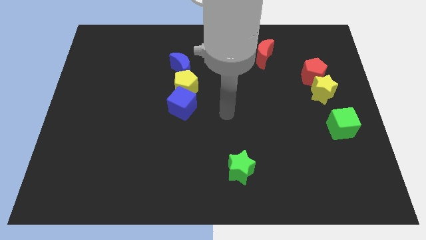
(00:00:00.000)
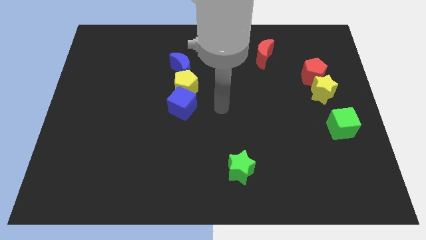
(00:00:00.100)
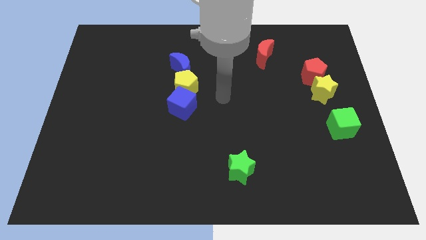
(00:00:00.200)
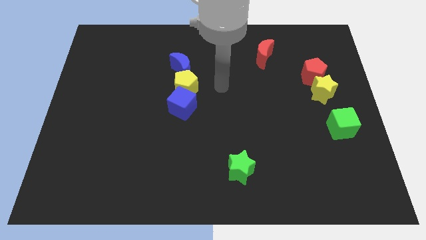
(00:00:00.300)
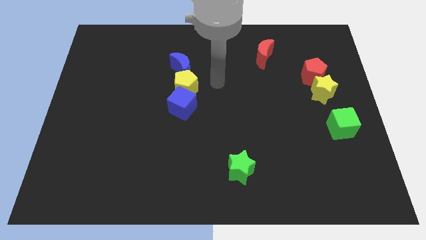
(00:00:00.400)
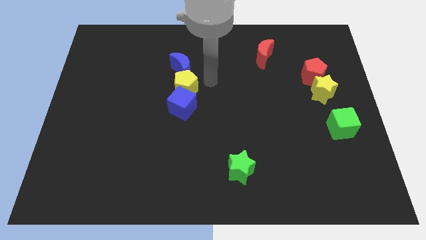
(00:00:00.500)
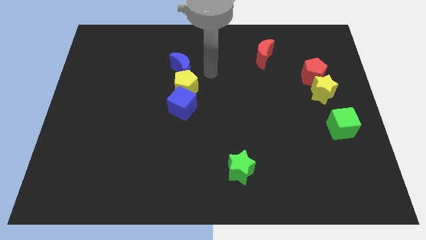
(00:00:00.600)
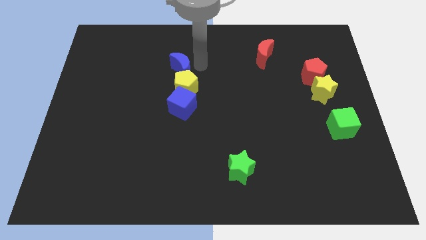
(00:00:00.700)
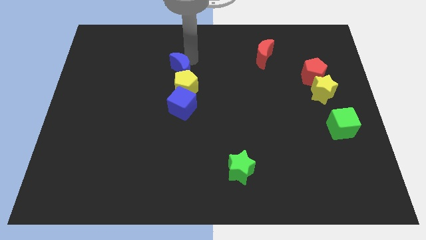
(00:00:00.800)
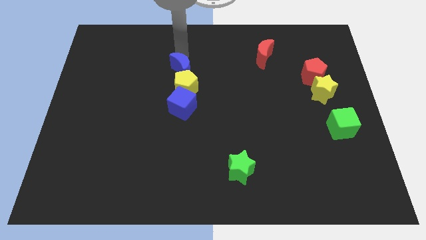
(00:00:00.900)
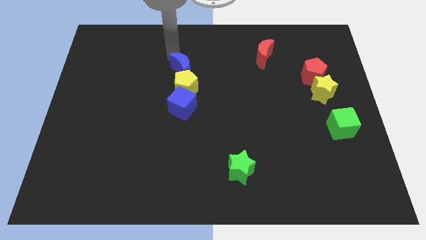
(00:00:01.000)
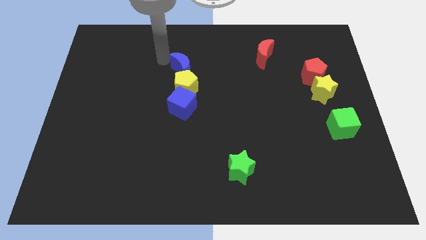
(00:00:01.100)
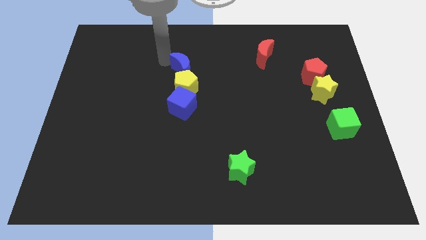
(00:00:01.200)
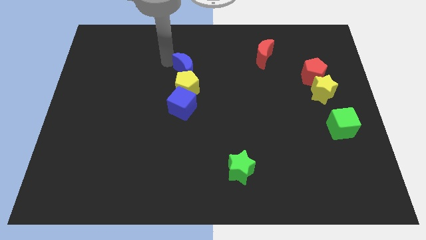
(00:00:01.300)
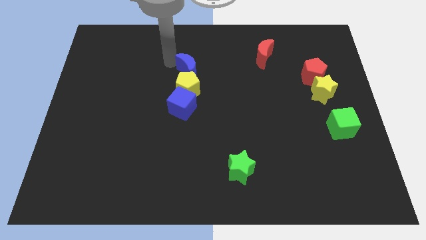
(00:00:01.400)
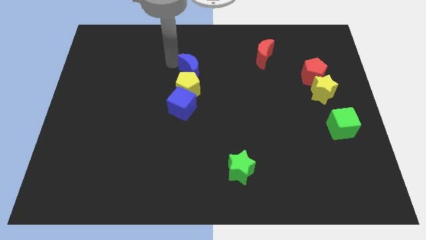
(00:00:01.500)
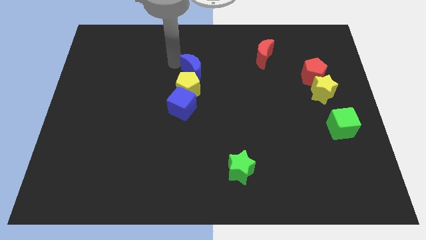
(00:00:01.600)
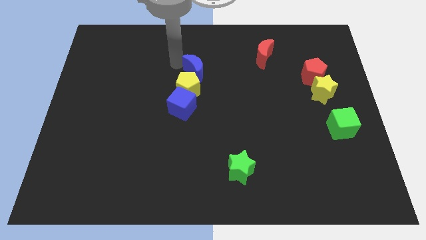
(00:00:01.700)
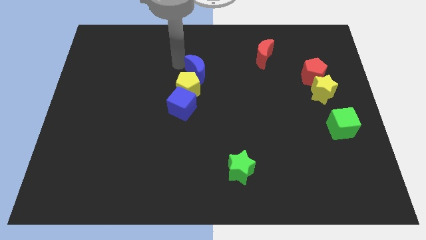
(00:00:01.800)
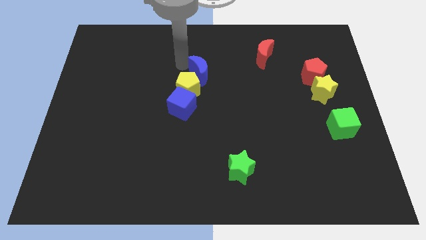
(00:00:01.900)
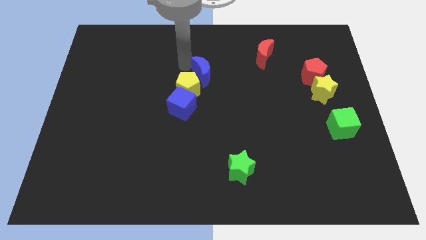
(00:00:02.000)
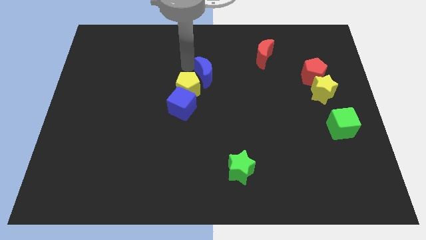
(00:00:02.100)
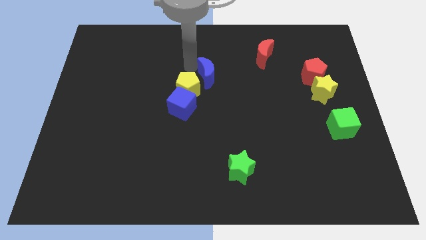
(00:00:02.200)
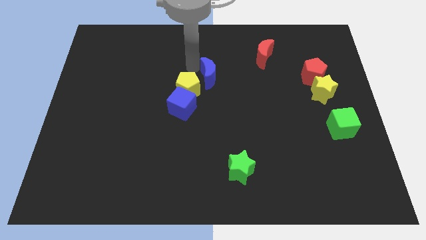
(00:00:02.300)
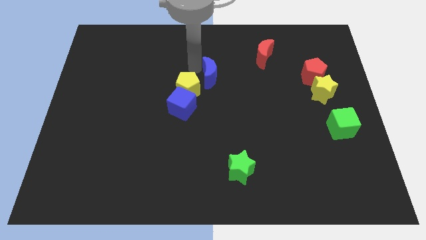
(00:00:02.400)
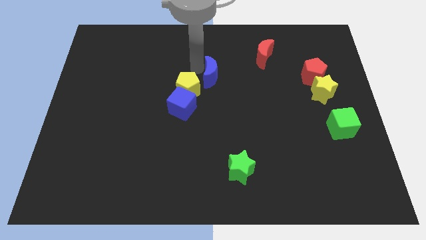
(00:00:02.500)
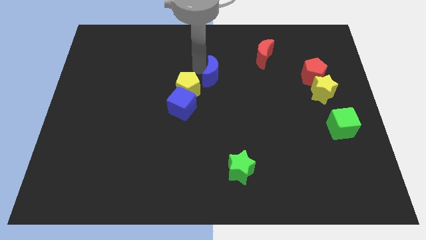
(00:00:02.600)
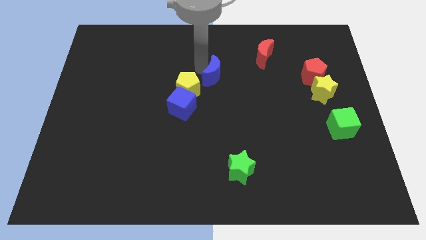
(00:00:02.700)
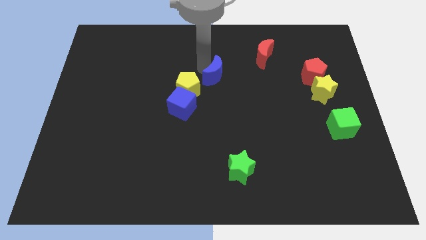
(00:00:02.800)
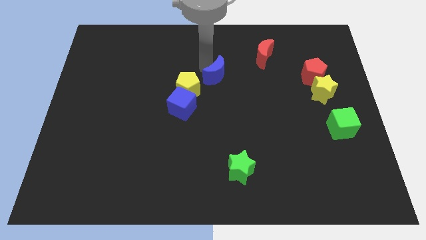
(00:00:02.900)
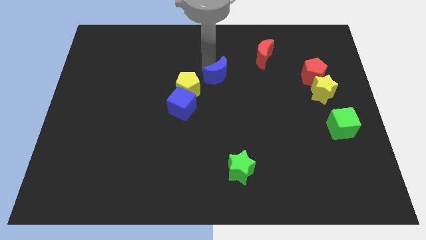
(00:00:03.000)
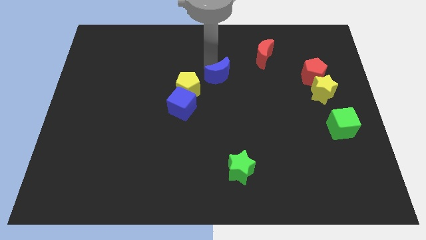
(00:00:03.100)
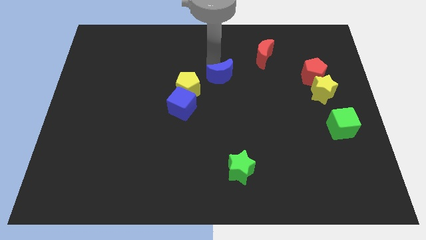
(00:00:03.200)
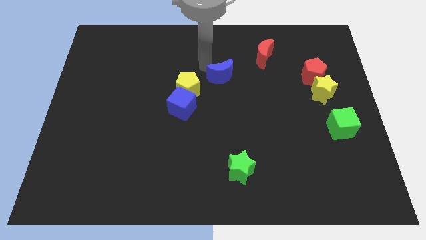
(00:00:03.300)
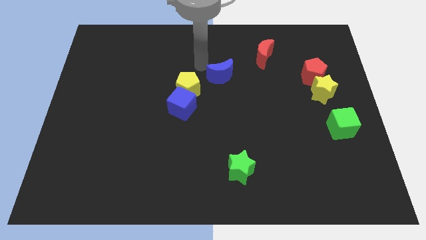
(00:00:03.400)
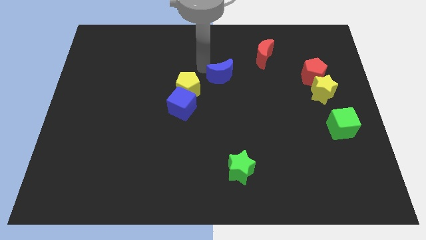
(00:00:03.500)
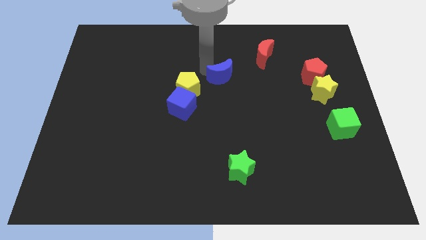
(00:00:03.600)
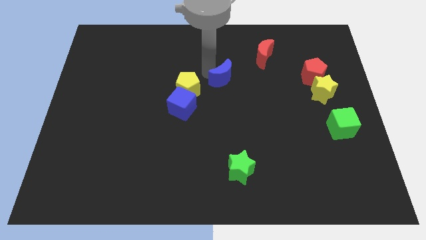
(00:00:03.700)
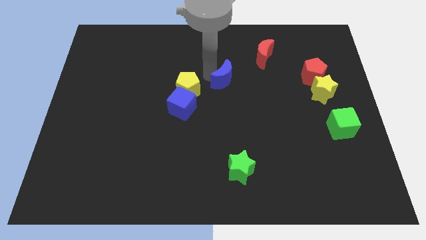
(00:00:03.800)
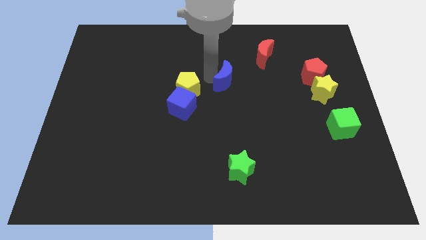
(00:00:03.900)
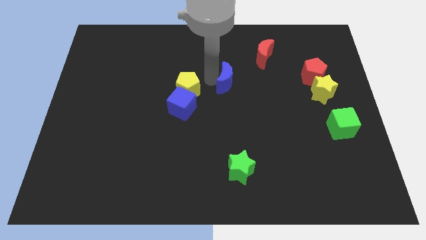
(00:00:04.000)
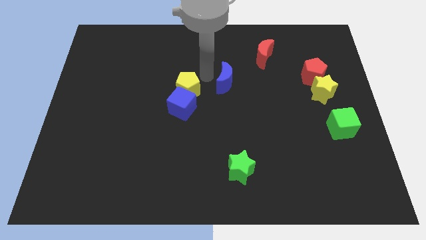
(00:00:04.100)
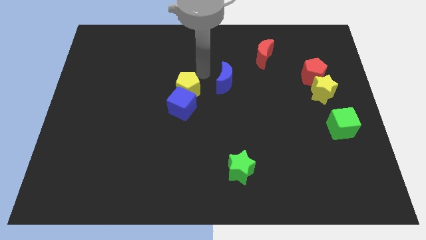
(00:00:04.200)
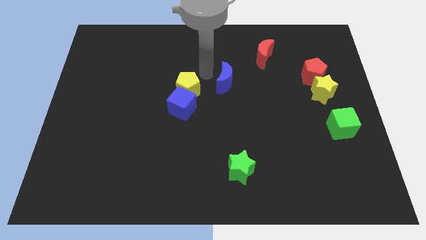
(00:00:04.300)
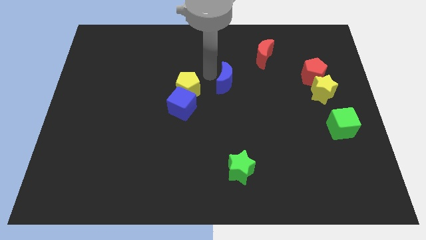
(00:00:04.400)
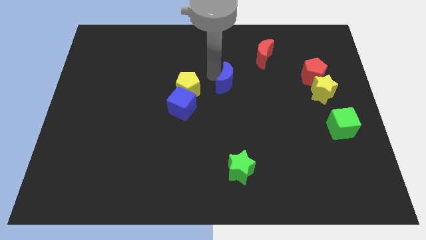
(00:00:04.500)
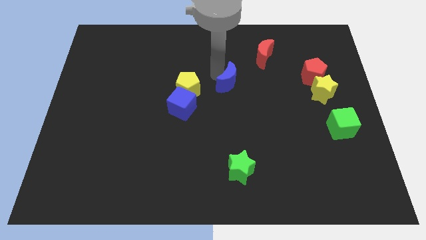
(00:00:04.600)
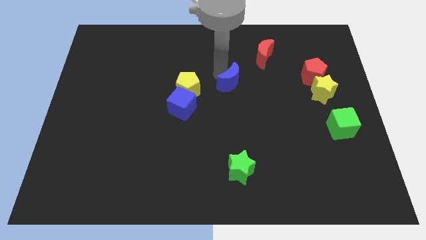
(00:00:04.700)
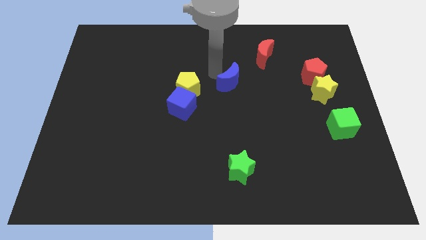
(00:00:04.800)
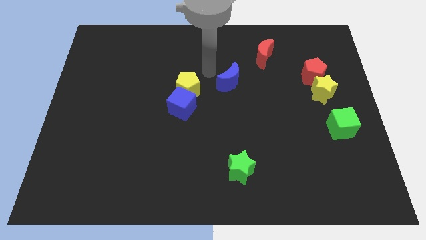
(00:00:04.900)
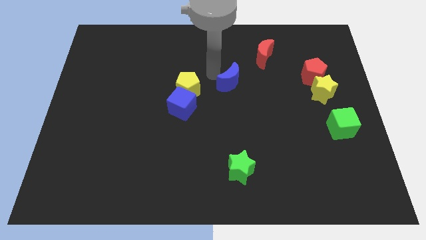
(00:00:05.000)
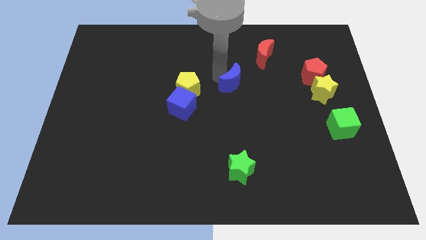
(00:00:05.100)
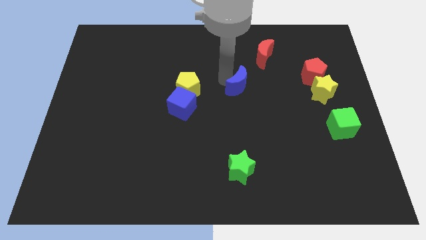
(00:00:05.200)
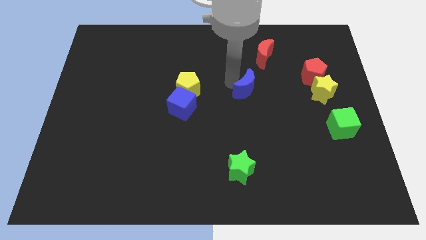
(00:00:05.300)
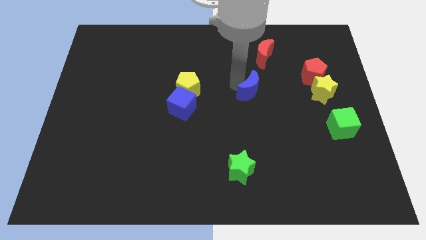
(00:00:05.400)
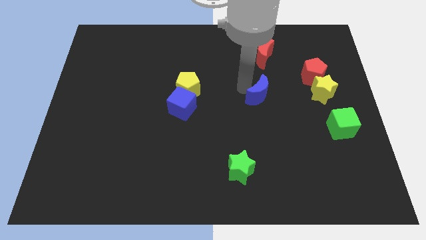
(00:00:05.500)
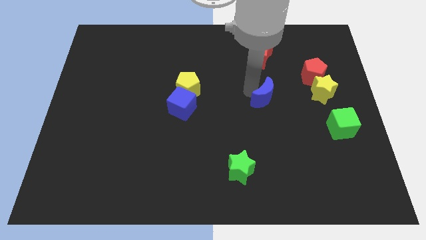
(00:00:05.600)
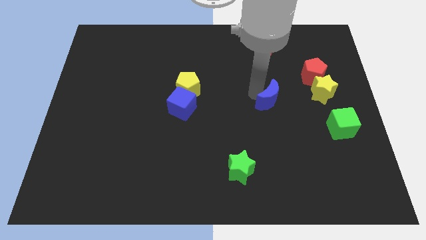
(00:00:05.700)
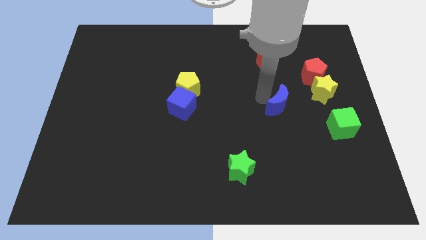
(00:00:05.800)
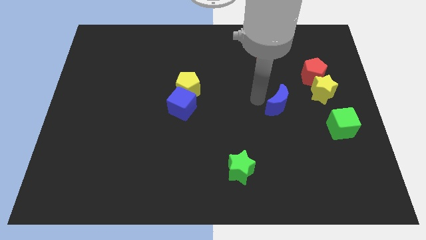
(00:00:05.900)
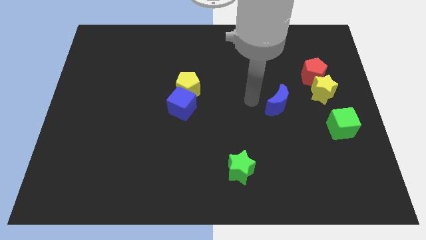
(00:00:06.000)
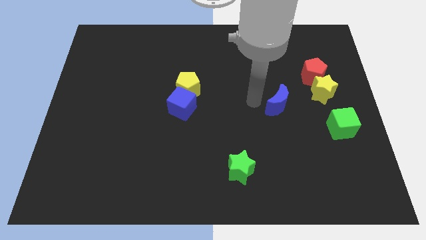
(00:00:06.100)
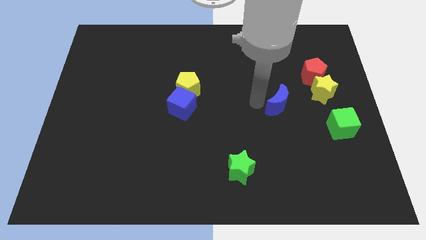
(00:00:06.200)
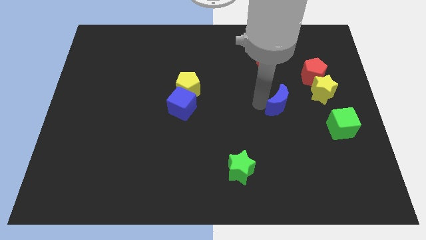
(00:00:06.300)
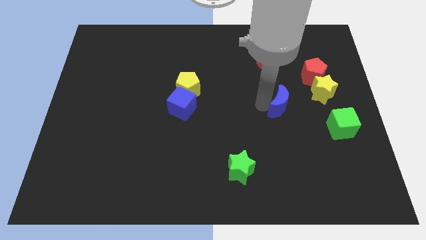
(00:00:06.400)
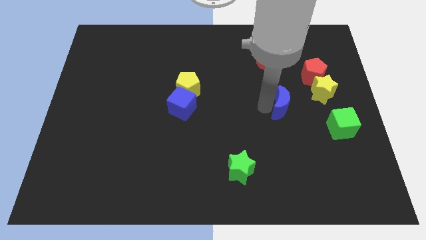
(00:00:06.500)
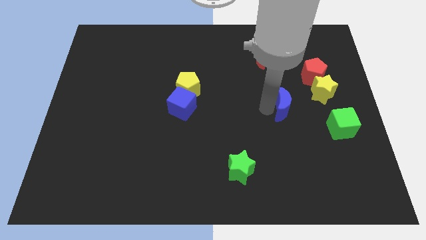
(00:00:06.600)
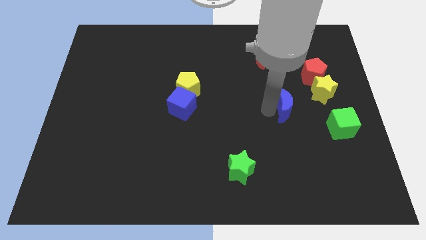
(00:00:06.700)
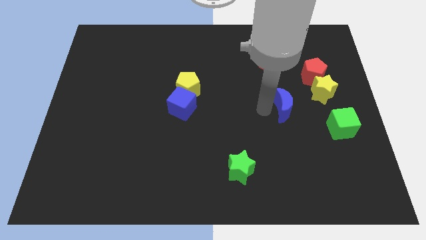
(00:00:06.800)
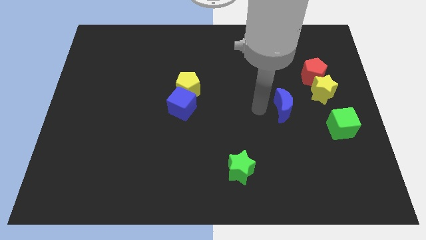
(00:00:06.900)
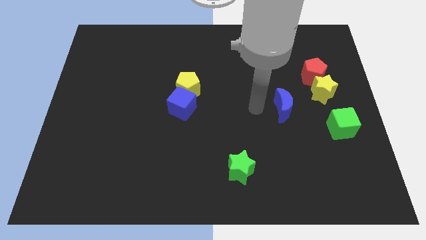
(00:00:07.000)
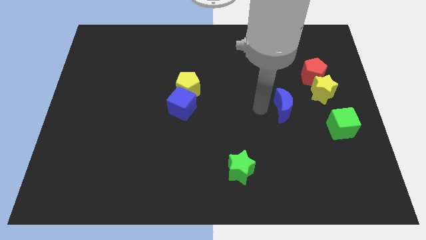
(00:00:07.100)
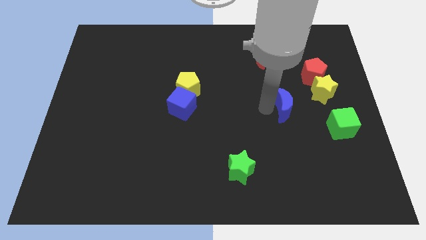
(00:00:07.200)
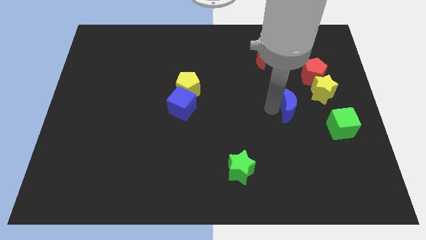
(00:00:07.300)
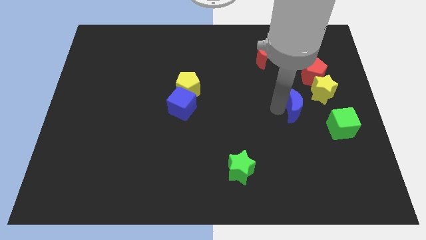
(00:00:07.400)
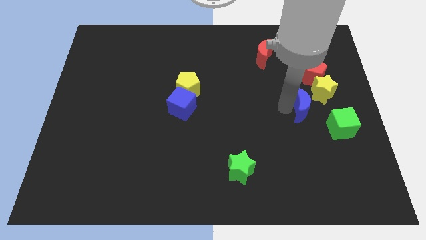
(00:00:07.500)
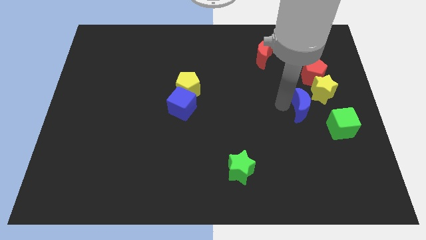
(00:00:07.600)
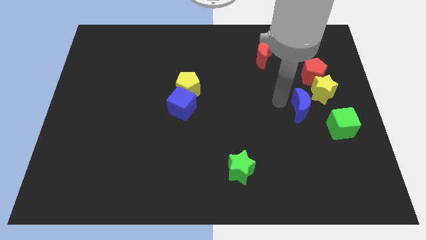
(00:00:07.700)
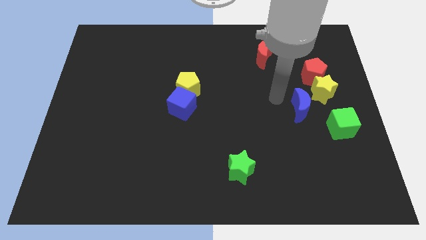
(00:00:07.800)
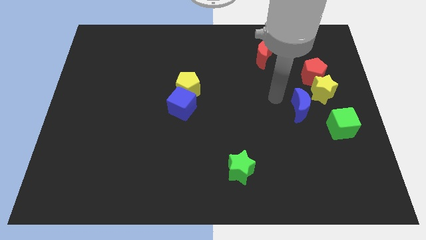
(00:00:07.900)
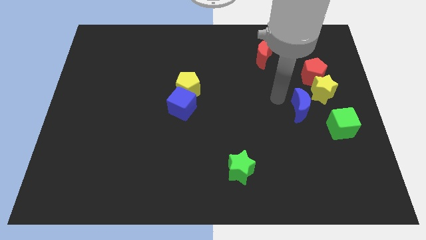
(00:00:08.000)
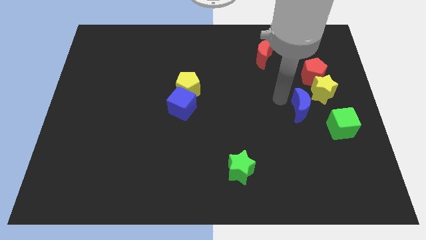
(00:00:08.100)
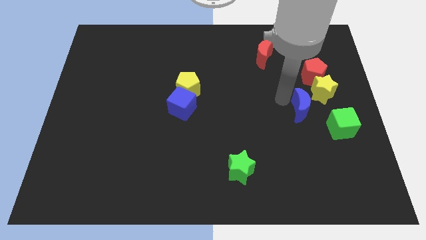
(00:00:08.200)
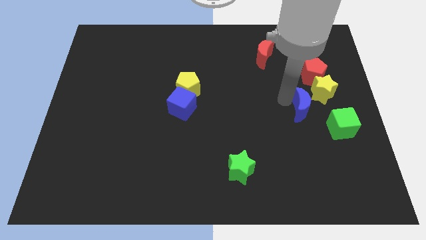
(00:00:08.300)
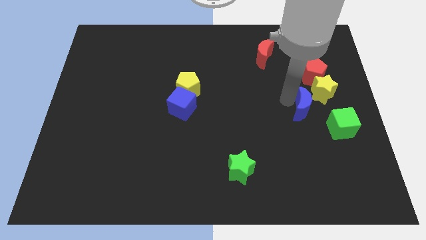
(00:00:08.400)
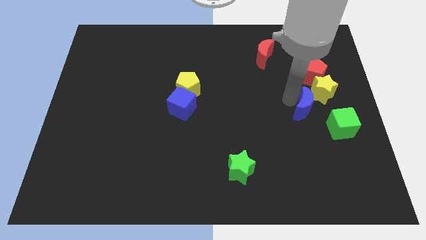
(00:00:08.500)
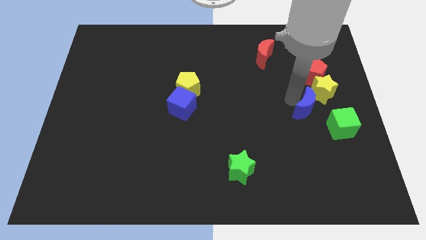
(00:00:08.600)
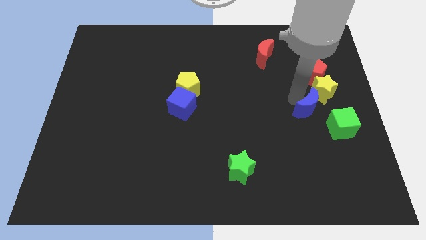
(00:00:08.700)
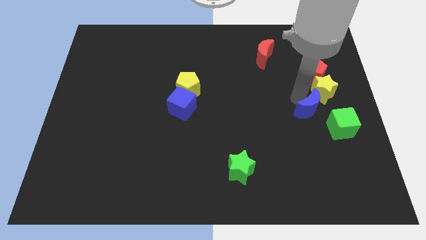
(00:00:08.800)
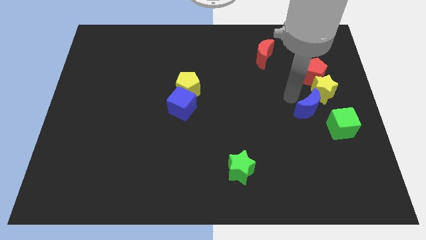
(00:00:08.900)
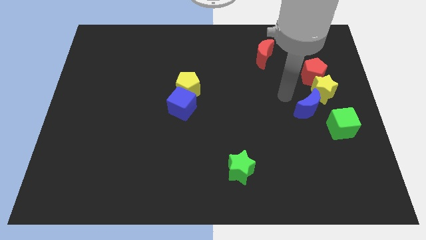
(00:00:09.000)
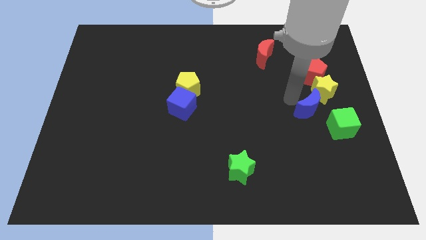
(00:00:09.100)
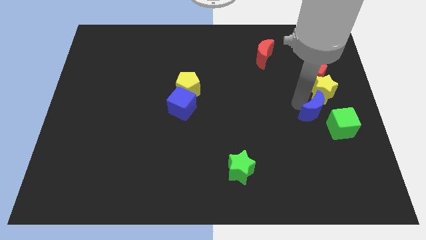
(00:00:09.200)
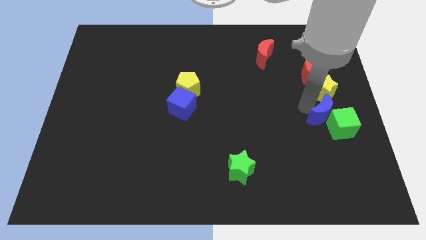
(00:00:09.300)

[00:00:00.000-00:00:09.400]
move the blue moon towards the green cube
